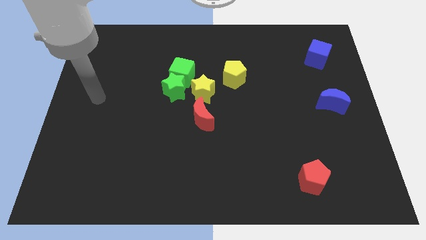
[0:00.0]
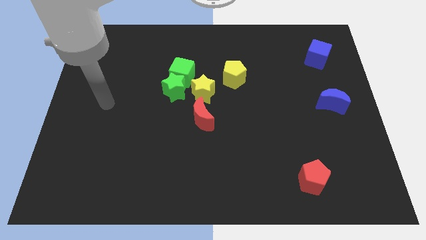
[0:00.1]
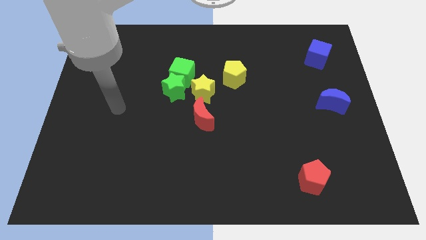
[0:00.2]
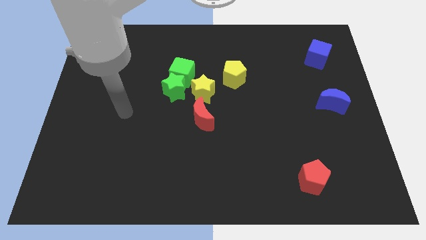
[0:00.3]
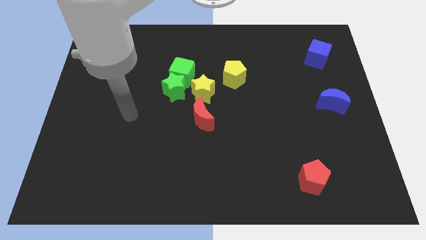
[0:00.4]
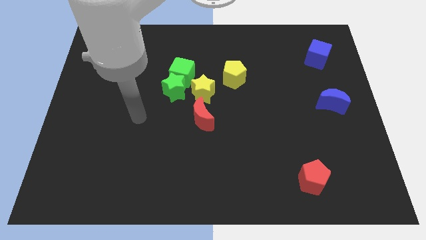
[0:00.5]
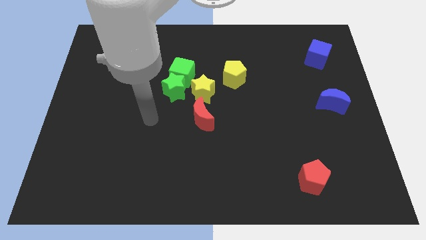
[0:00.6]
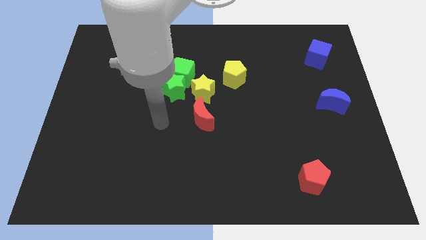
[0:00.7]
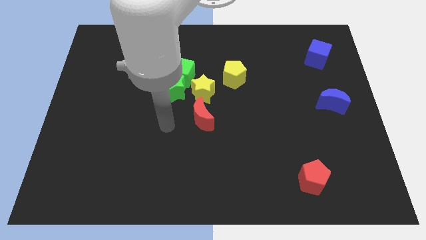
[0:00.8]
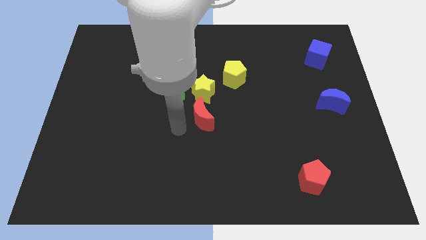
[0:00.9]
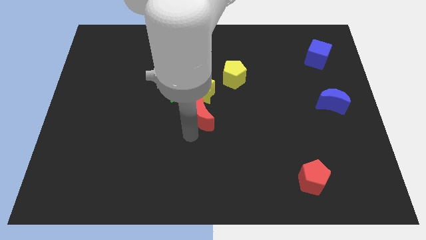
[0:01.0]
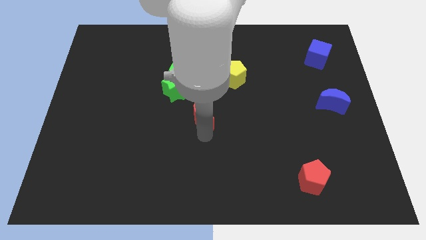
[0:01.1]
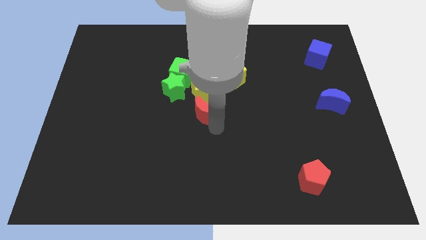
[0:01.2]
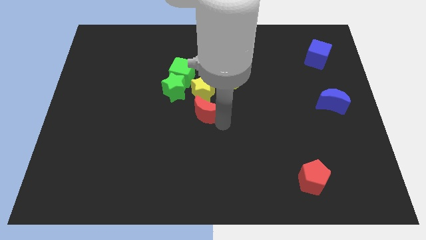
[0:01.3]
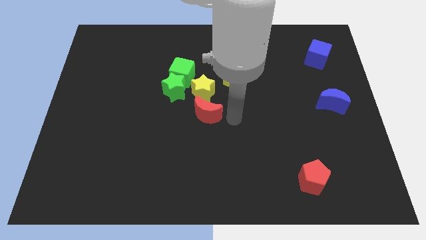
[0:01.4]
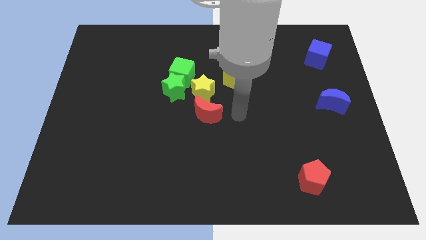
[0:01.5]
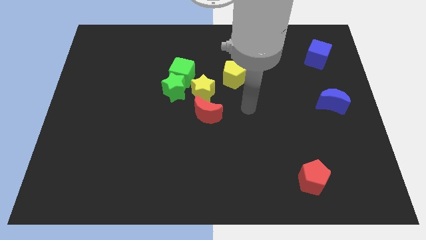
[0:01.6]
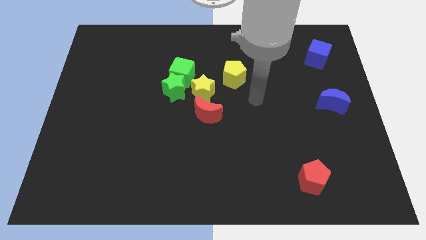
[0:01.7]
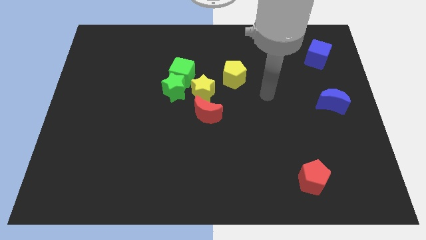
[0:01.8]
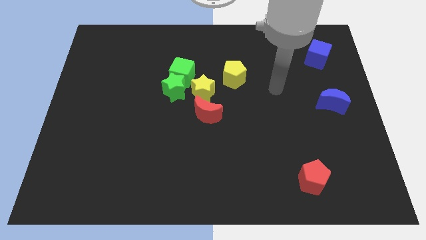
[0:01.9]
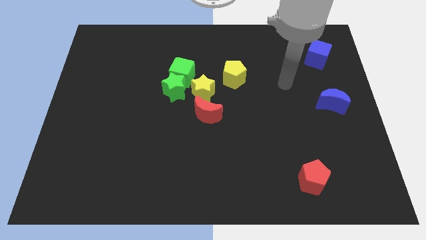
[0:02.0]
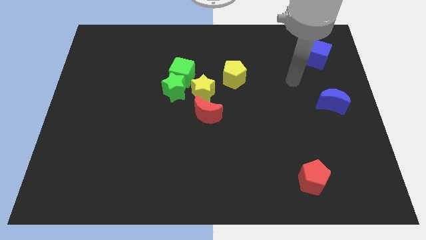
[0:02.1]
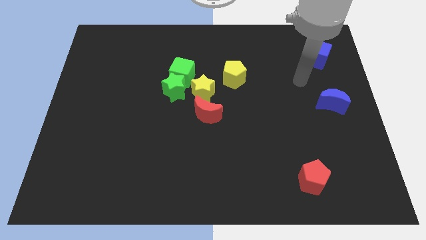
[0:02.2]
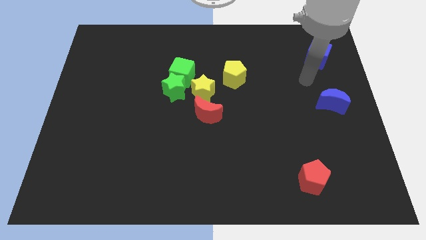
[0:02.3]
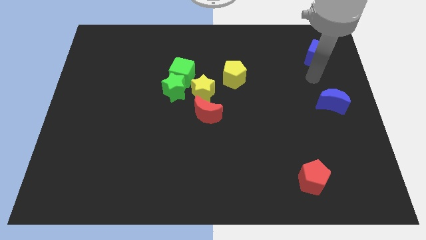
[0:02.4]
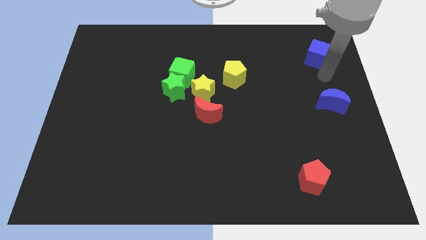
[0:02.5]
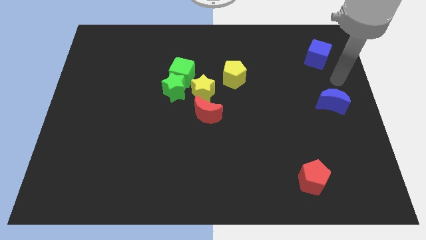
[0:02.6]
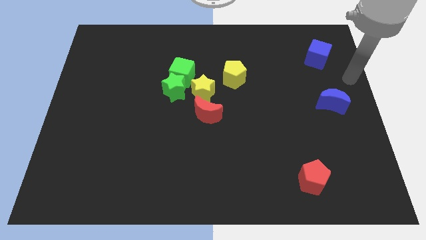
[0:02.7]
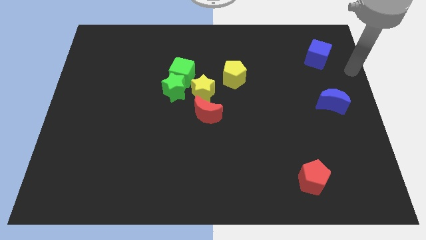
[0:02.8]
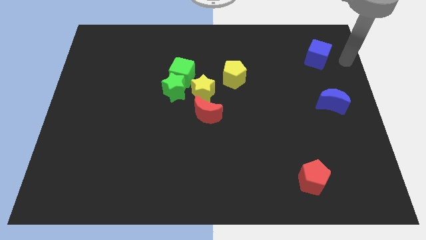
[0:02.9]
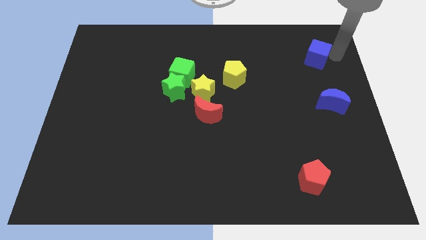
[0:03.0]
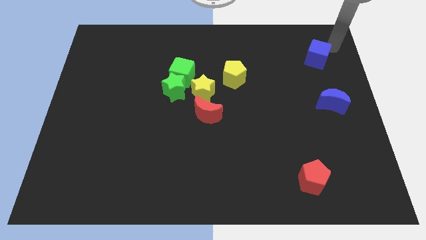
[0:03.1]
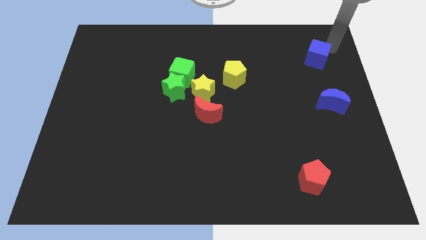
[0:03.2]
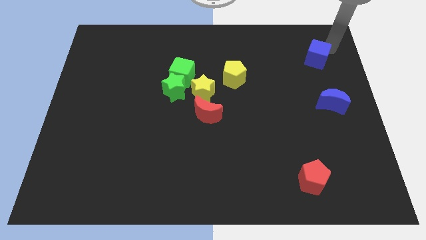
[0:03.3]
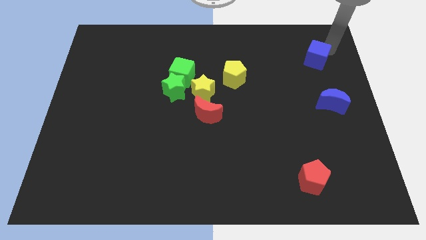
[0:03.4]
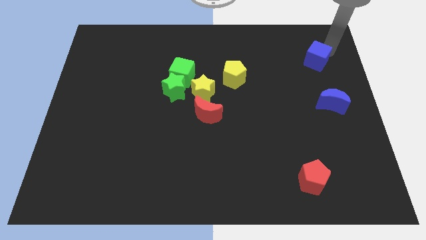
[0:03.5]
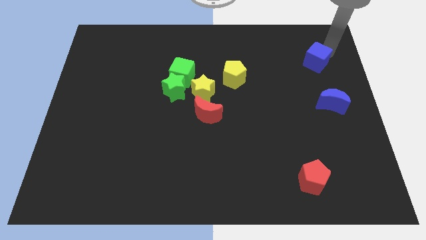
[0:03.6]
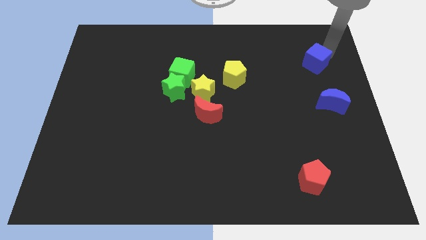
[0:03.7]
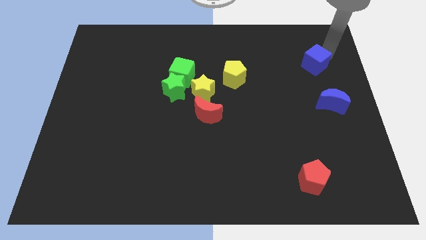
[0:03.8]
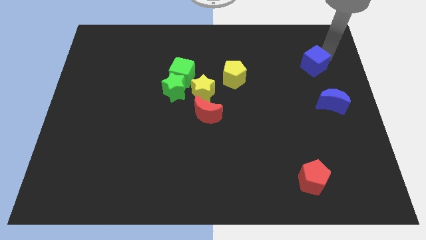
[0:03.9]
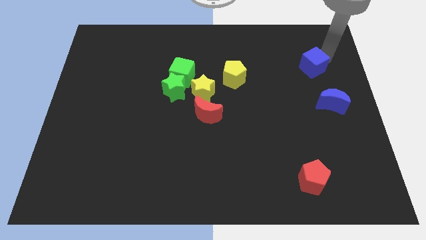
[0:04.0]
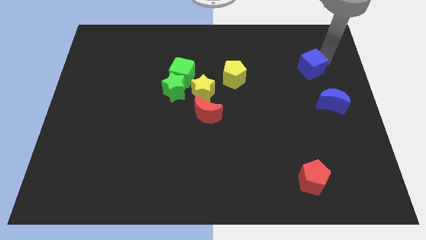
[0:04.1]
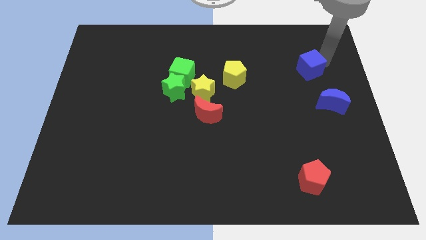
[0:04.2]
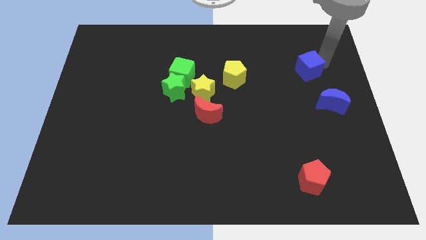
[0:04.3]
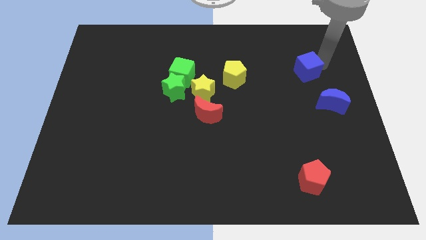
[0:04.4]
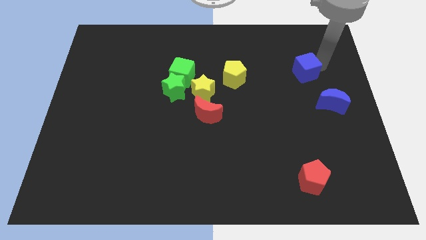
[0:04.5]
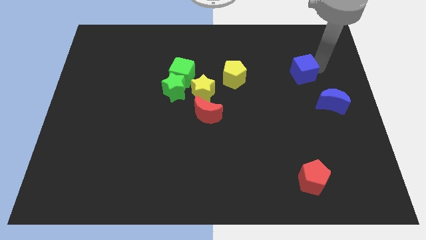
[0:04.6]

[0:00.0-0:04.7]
slide the blue cube somewhat diagonally down and left

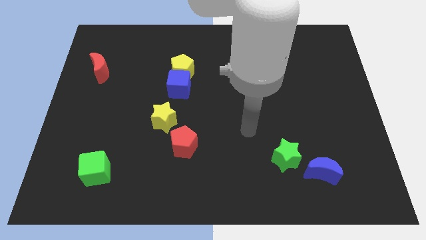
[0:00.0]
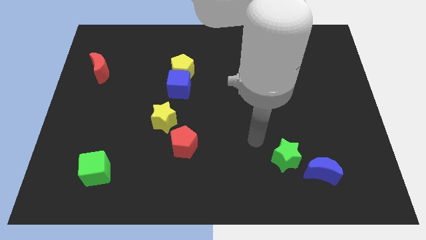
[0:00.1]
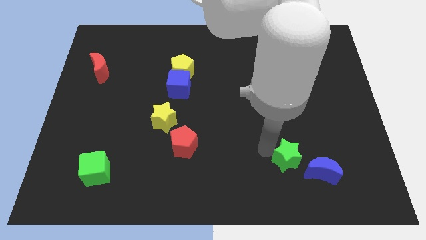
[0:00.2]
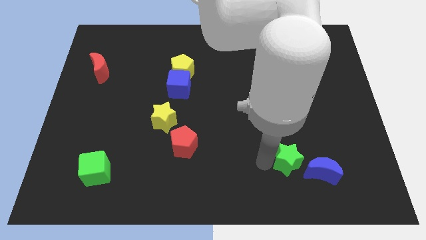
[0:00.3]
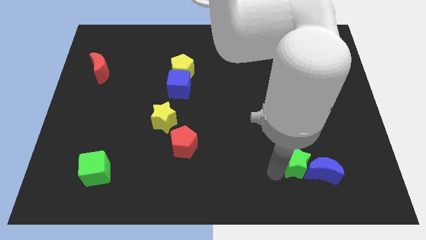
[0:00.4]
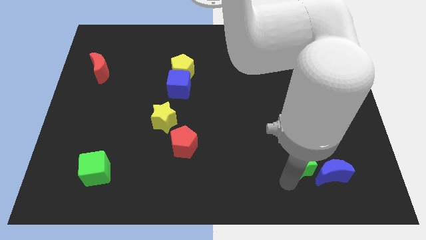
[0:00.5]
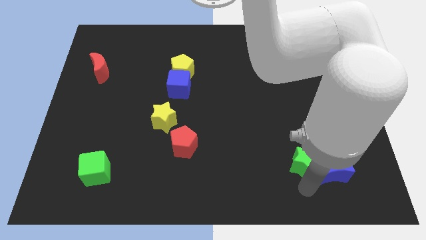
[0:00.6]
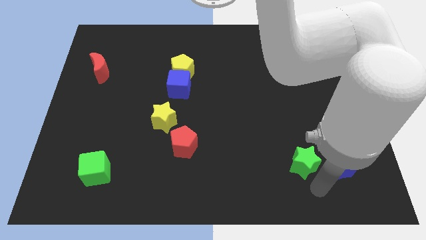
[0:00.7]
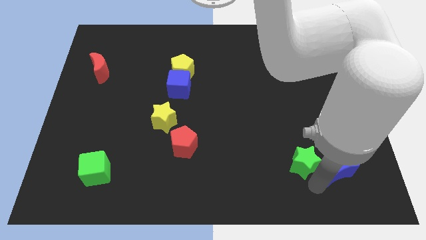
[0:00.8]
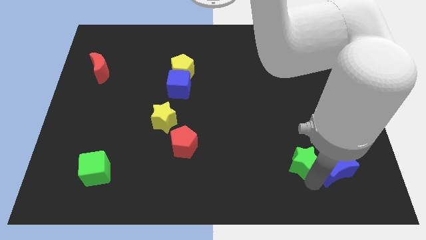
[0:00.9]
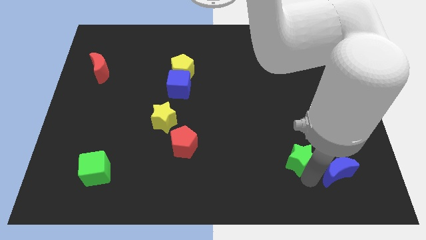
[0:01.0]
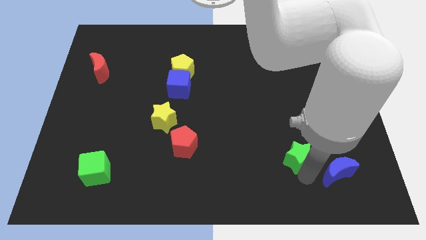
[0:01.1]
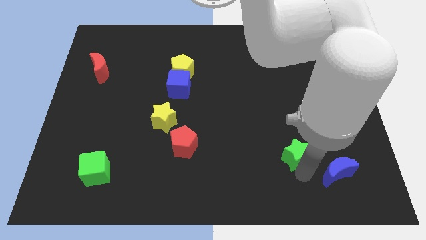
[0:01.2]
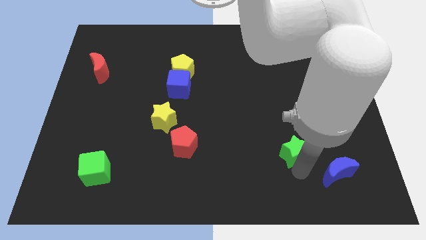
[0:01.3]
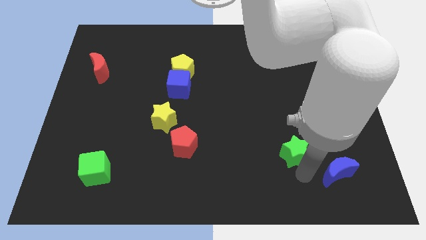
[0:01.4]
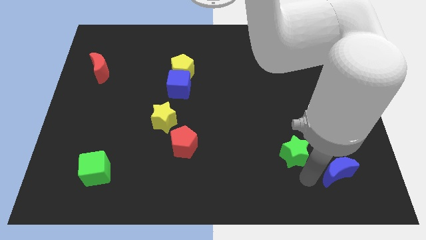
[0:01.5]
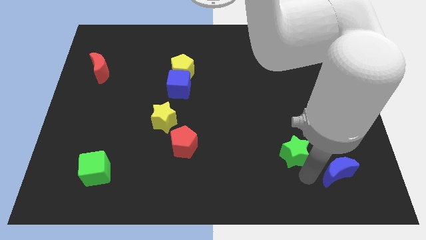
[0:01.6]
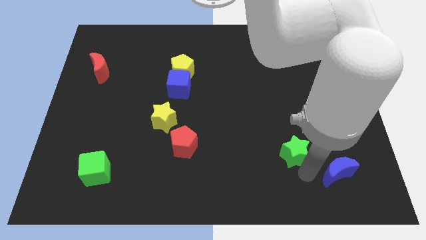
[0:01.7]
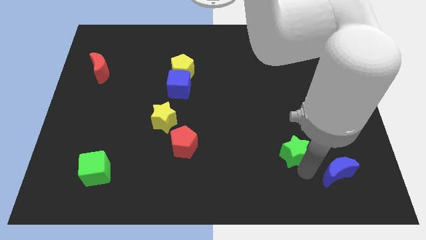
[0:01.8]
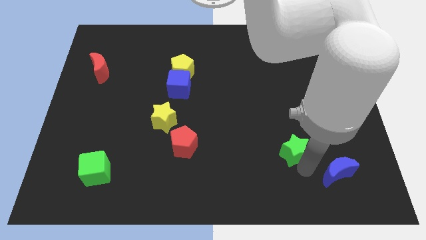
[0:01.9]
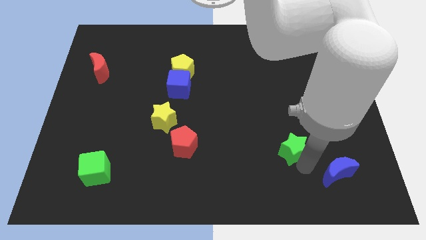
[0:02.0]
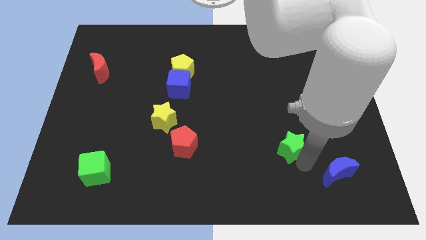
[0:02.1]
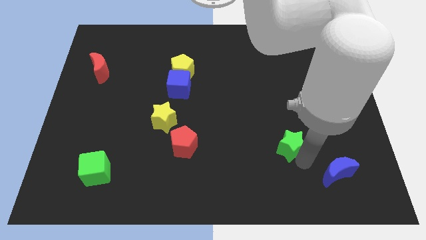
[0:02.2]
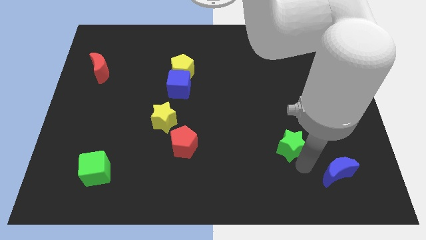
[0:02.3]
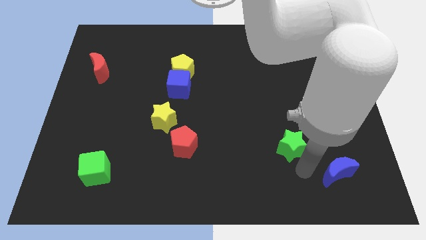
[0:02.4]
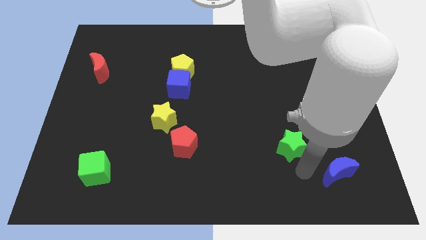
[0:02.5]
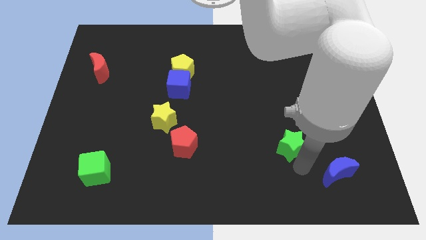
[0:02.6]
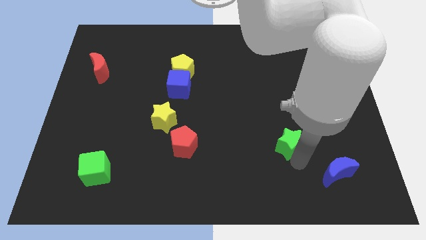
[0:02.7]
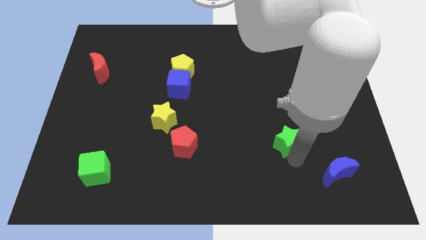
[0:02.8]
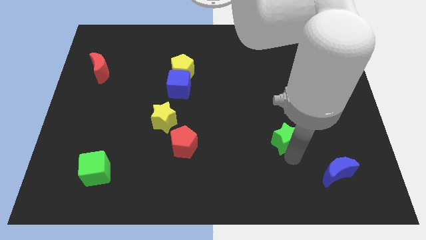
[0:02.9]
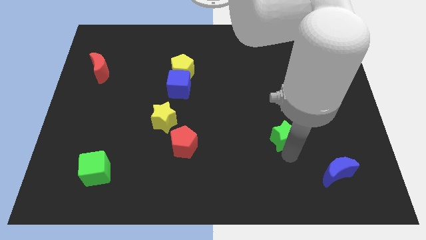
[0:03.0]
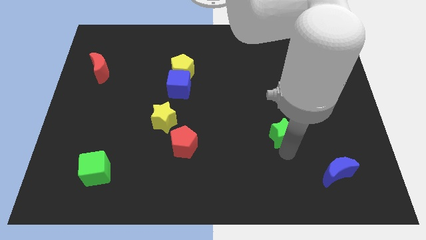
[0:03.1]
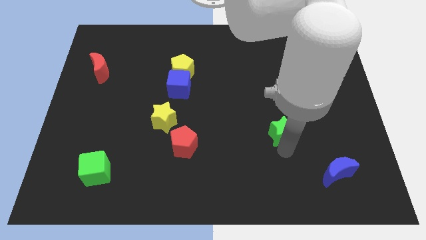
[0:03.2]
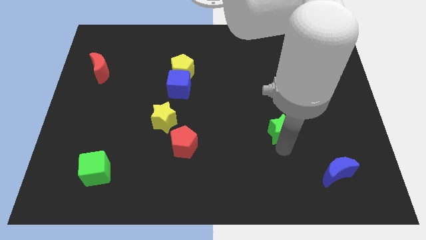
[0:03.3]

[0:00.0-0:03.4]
move the green star a little up
